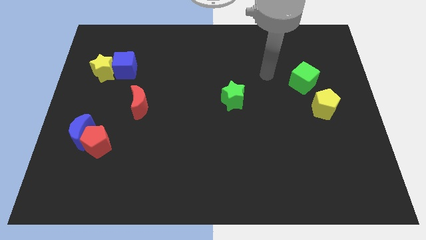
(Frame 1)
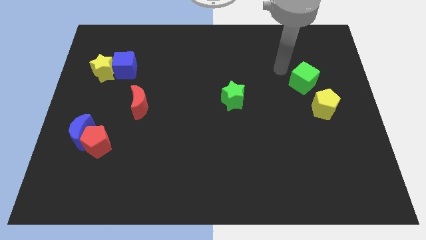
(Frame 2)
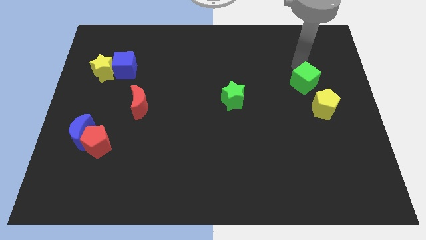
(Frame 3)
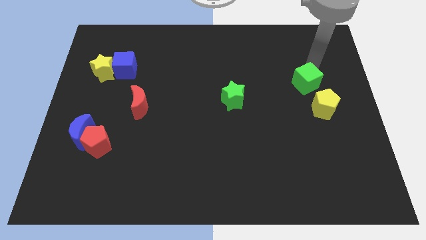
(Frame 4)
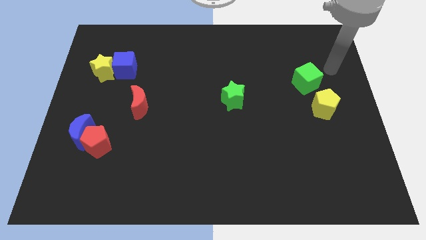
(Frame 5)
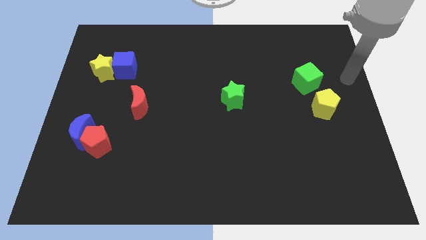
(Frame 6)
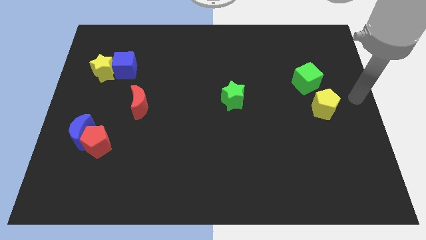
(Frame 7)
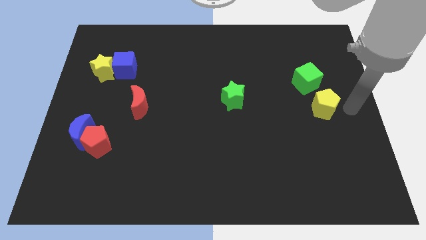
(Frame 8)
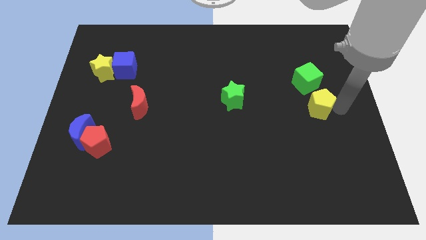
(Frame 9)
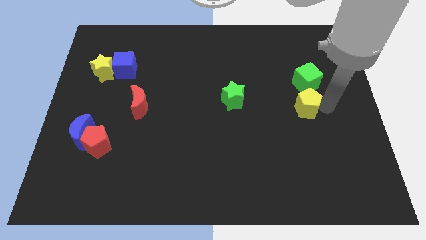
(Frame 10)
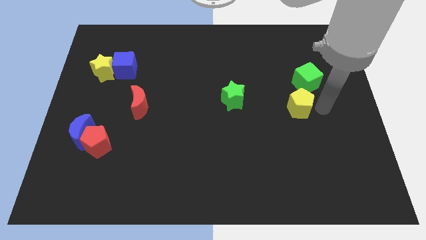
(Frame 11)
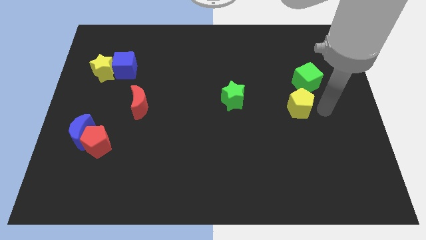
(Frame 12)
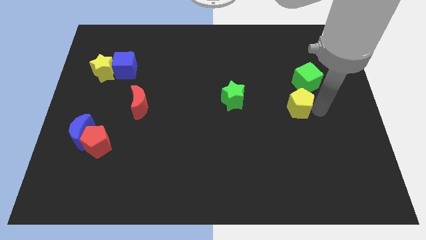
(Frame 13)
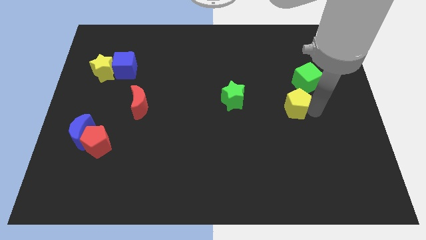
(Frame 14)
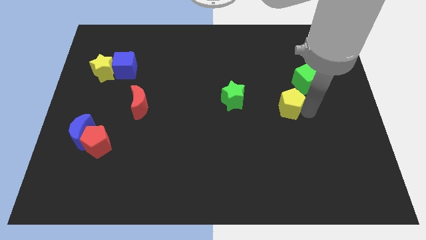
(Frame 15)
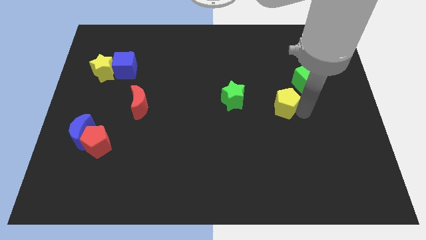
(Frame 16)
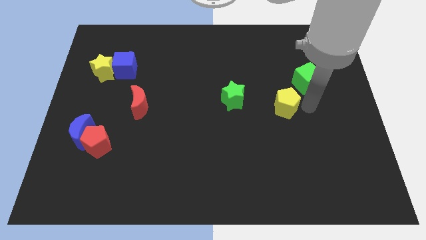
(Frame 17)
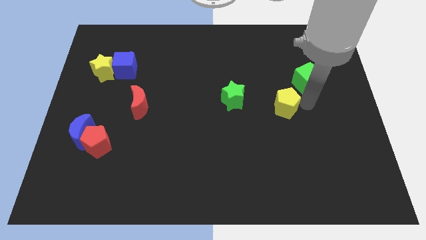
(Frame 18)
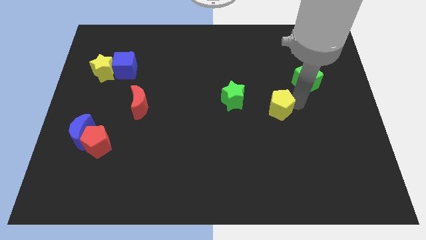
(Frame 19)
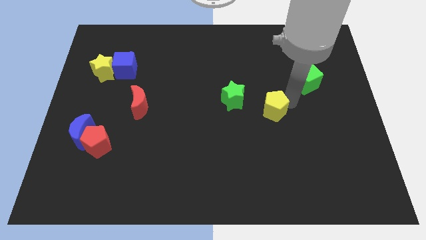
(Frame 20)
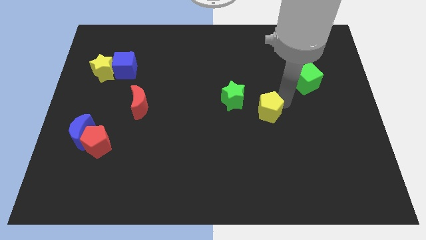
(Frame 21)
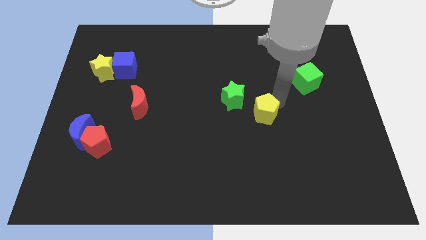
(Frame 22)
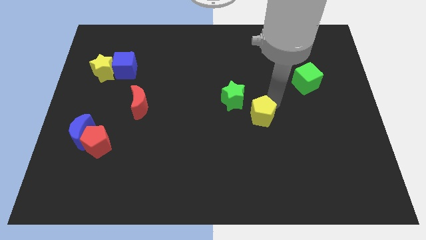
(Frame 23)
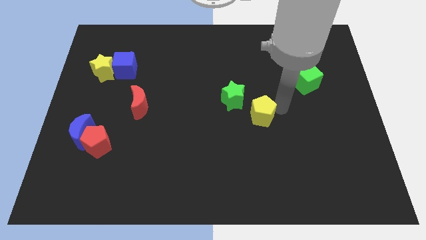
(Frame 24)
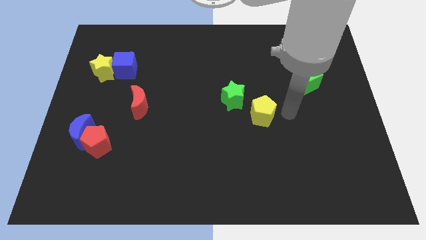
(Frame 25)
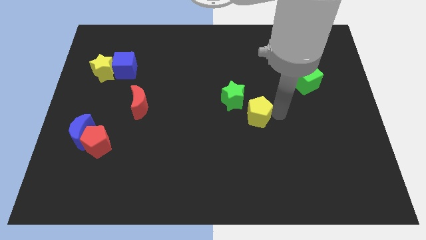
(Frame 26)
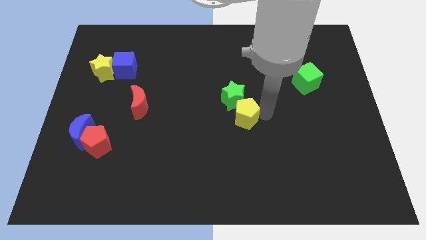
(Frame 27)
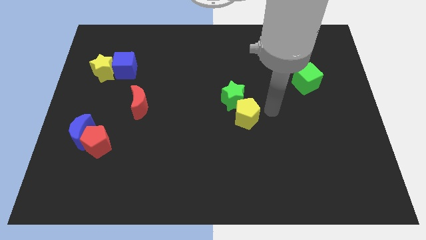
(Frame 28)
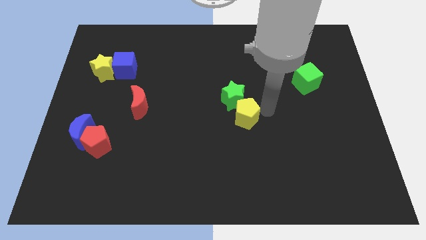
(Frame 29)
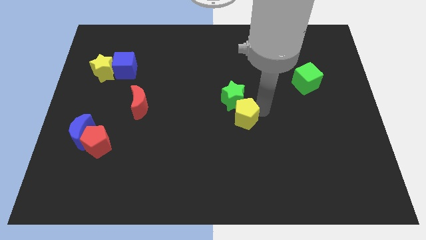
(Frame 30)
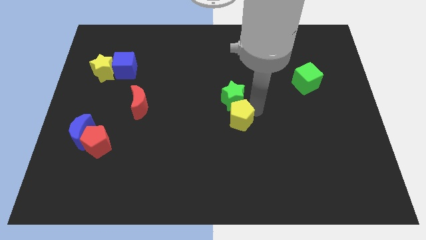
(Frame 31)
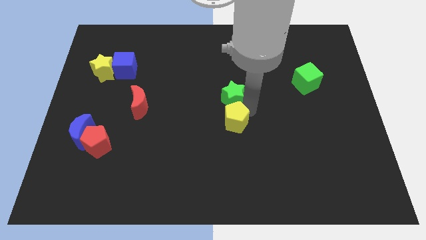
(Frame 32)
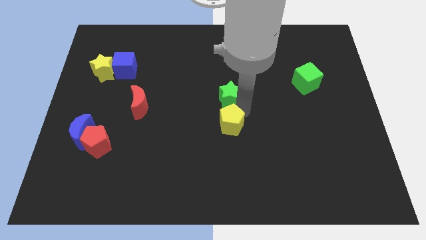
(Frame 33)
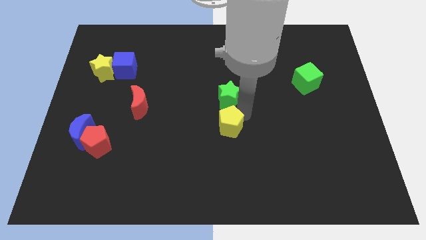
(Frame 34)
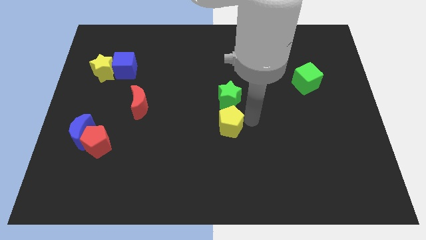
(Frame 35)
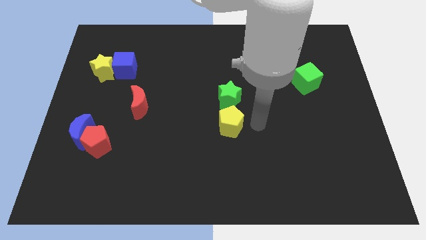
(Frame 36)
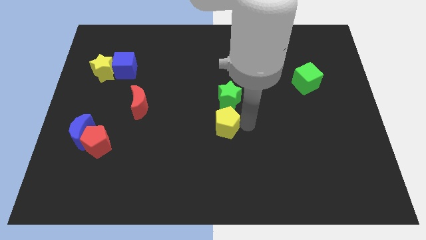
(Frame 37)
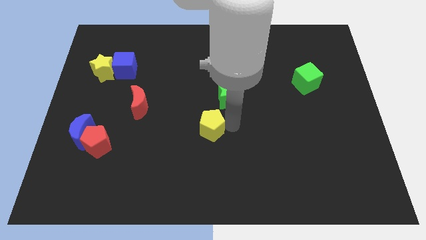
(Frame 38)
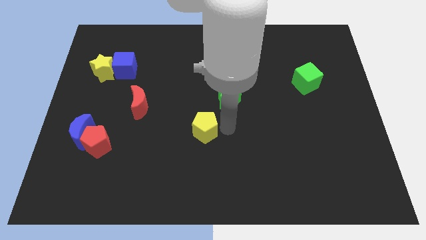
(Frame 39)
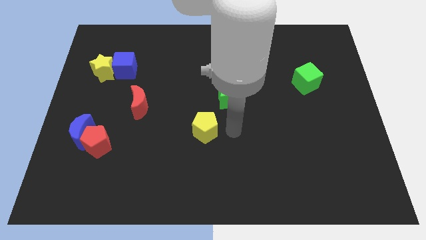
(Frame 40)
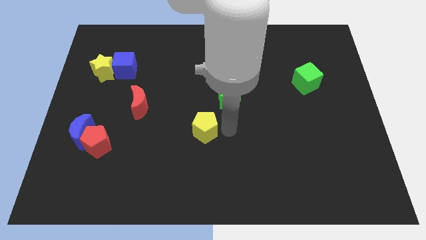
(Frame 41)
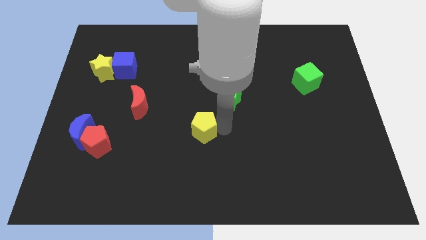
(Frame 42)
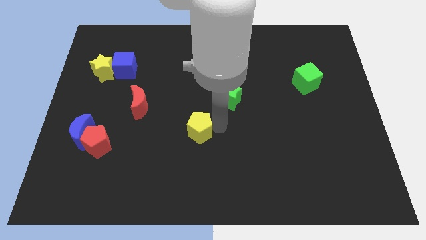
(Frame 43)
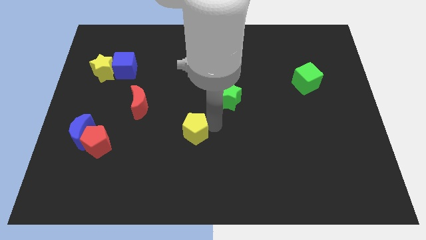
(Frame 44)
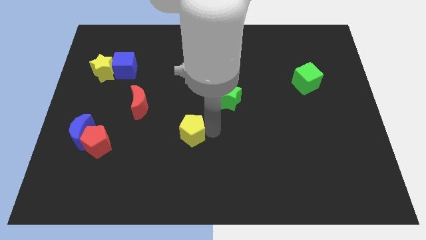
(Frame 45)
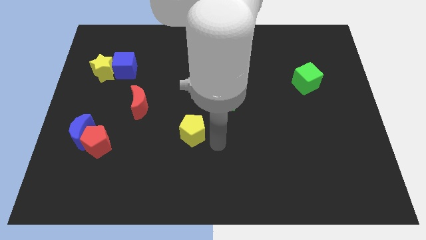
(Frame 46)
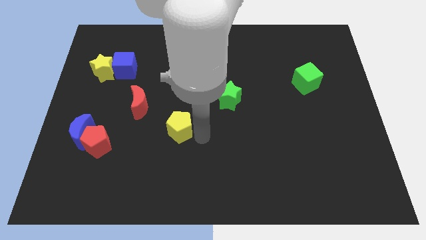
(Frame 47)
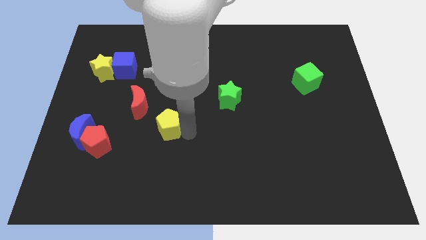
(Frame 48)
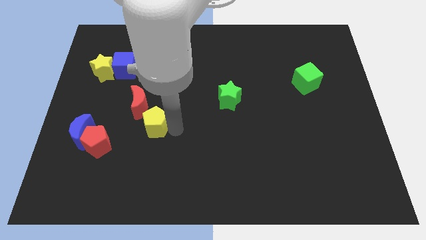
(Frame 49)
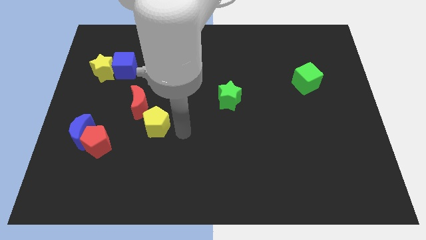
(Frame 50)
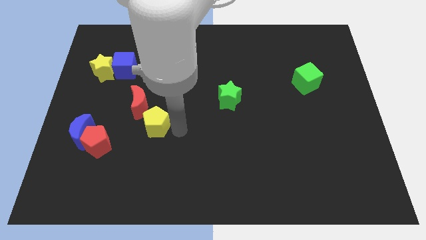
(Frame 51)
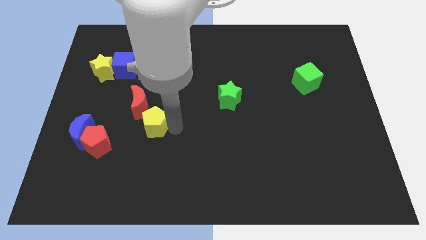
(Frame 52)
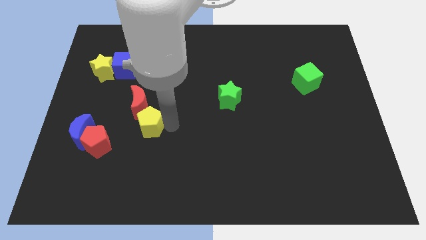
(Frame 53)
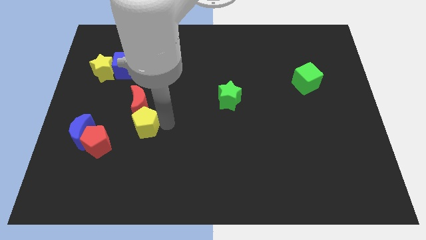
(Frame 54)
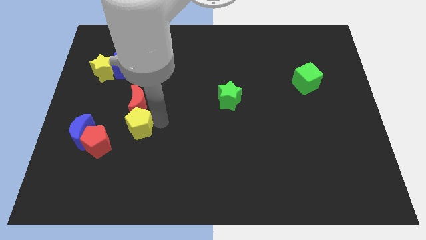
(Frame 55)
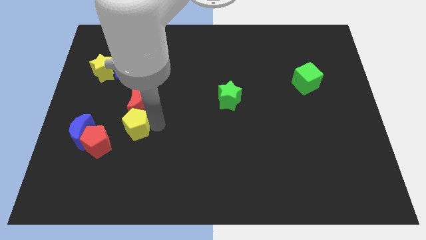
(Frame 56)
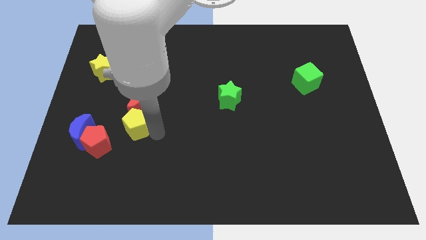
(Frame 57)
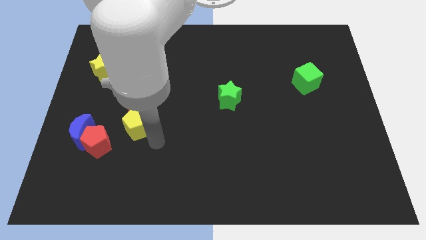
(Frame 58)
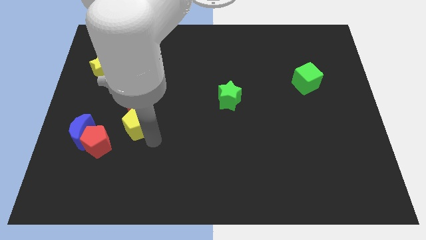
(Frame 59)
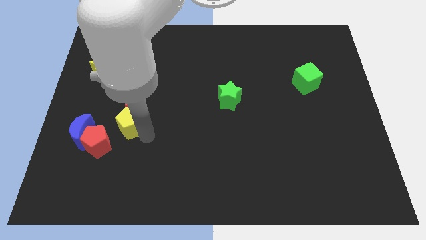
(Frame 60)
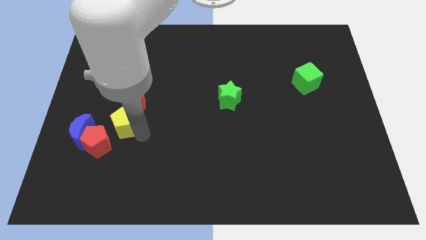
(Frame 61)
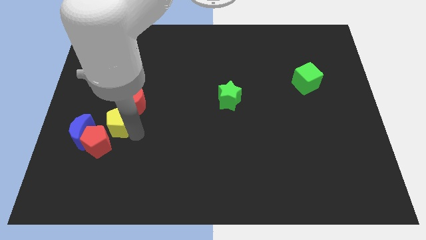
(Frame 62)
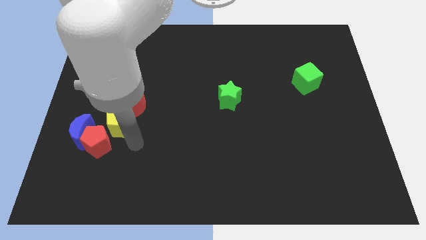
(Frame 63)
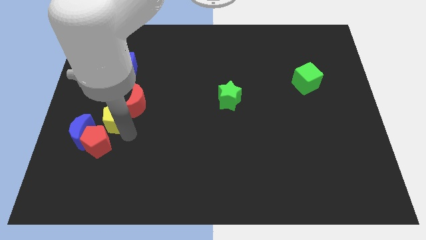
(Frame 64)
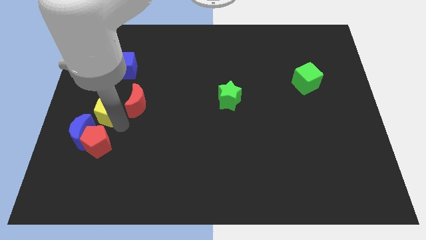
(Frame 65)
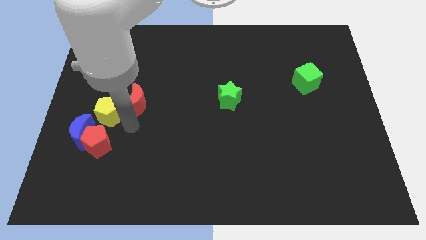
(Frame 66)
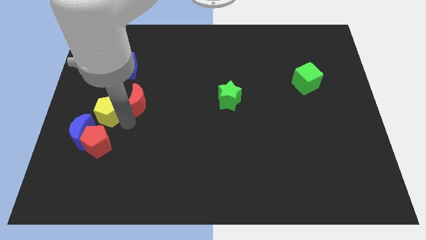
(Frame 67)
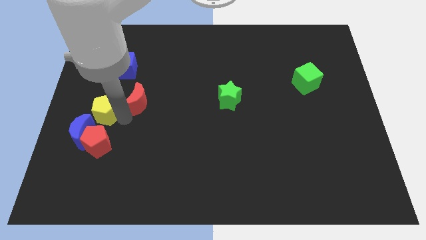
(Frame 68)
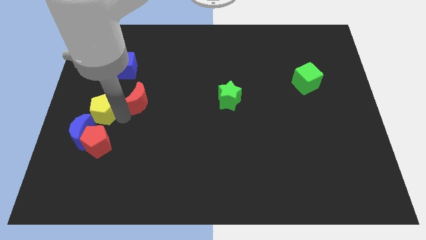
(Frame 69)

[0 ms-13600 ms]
put the yellow pentagon to the left side

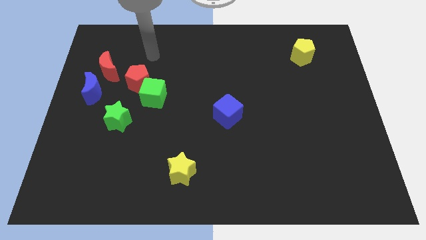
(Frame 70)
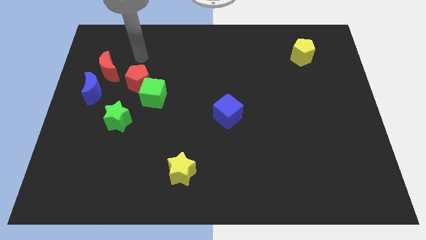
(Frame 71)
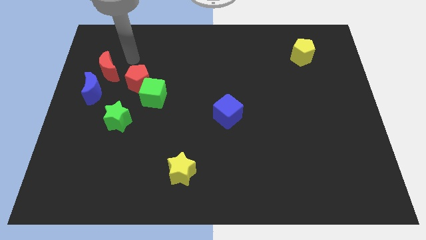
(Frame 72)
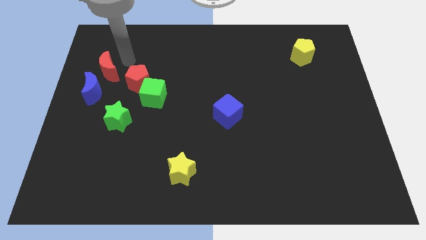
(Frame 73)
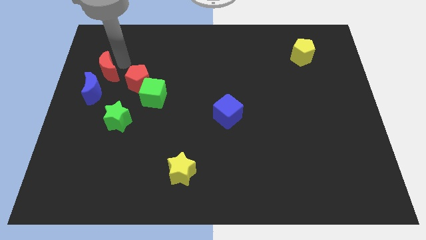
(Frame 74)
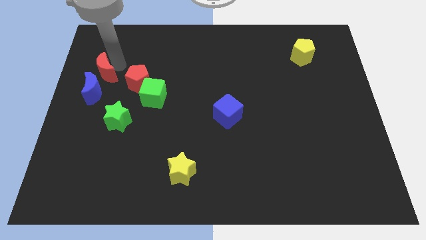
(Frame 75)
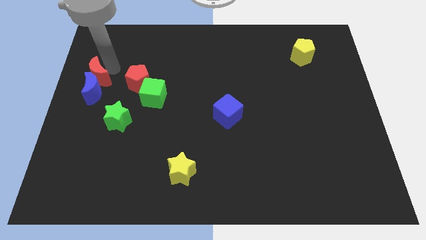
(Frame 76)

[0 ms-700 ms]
push the red moon to the center left
